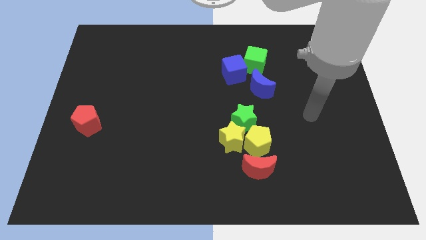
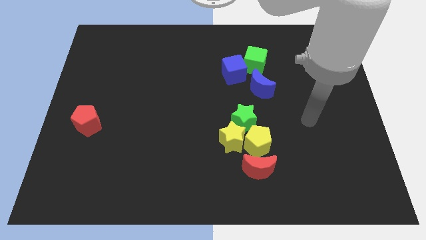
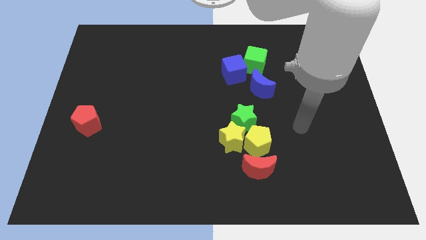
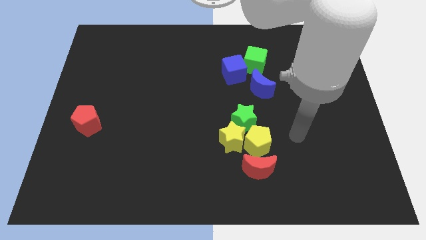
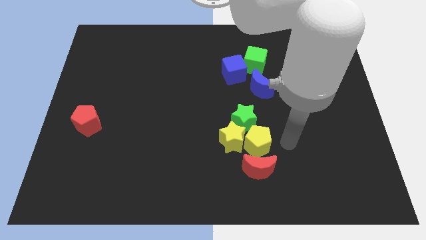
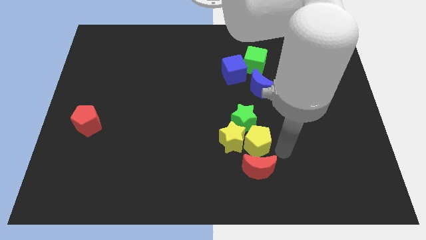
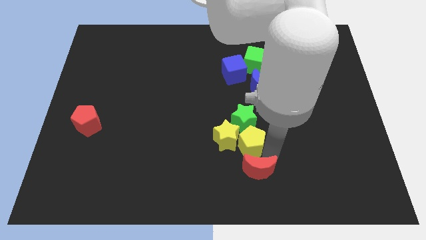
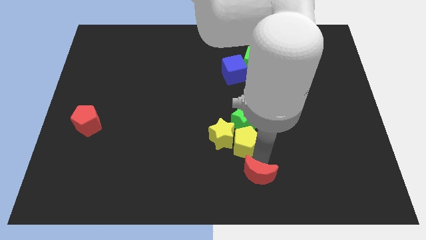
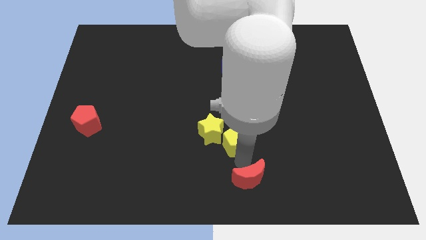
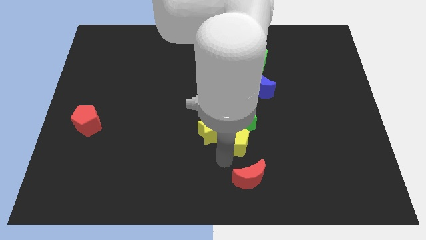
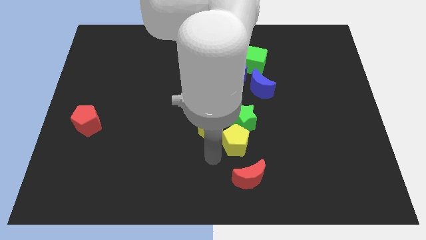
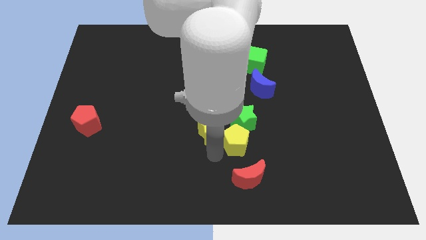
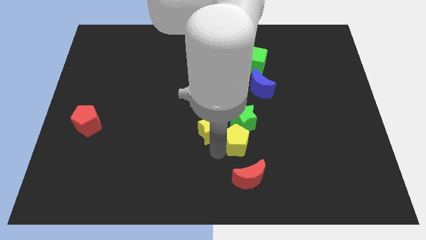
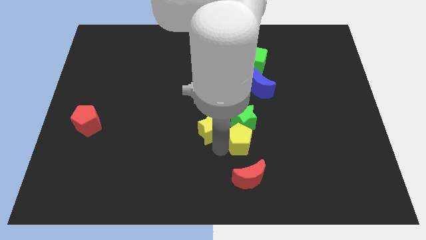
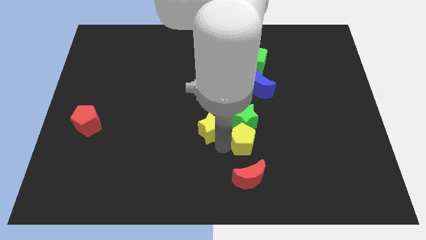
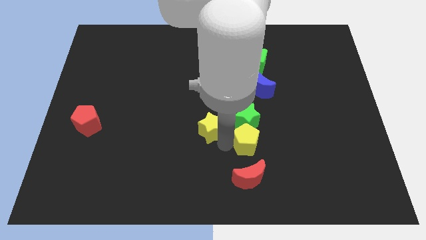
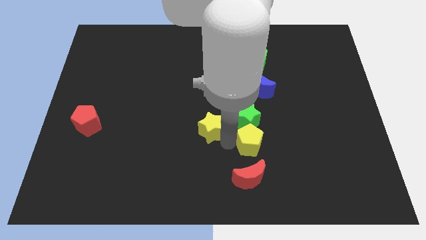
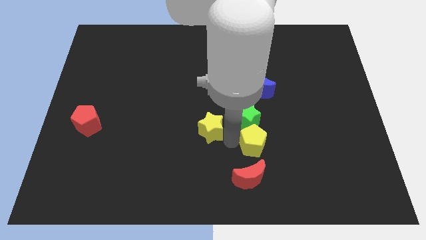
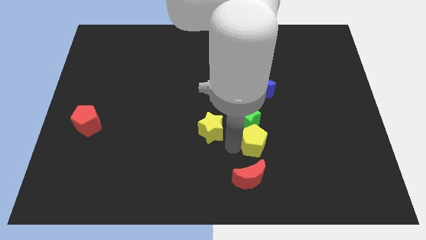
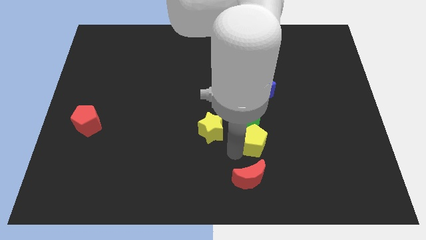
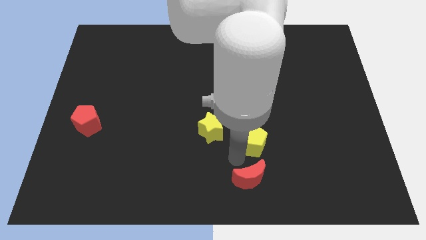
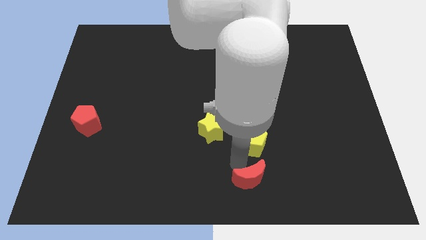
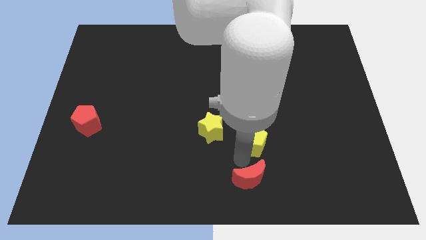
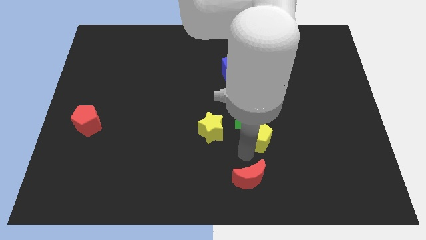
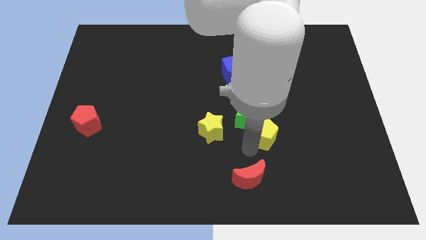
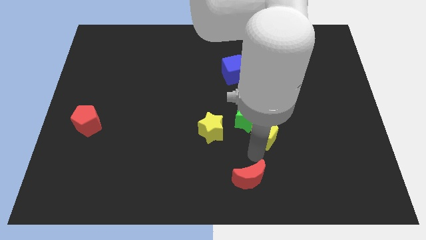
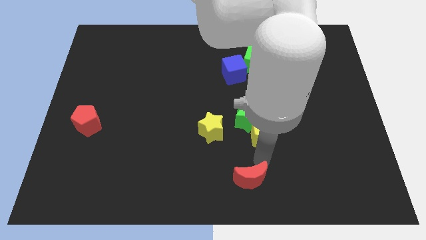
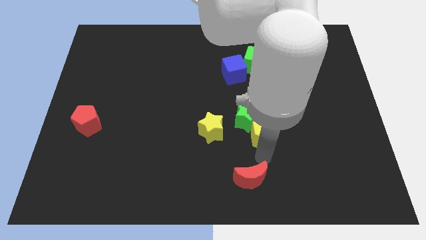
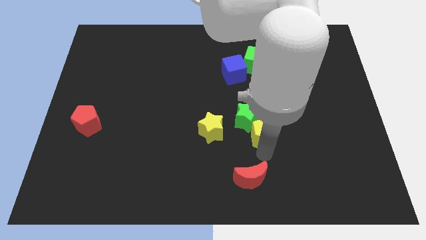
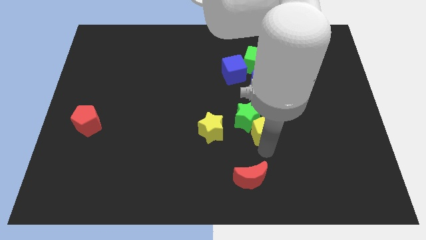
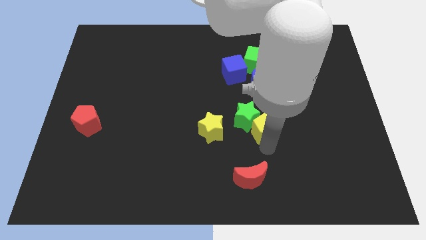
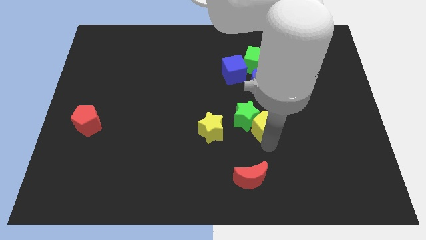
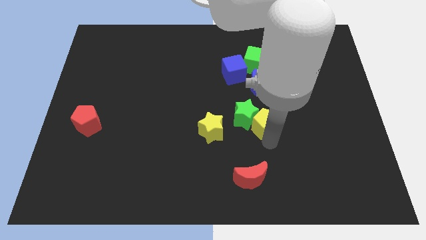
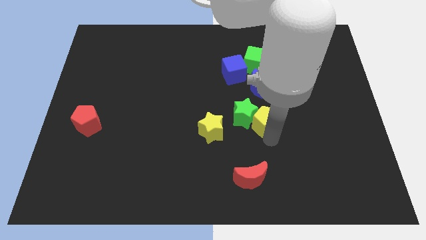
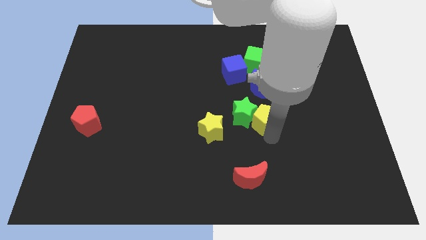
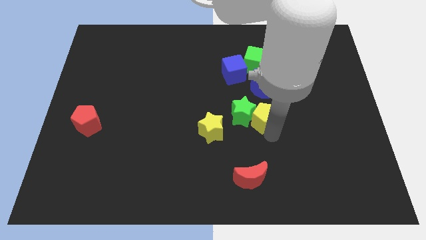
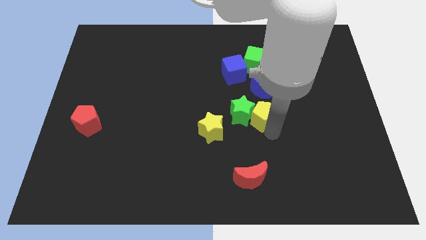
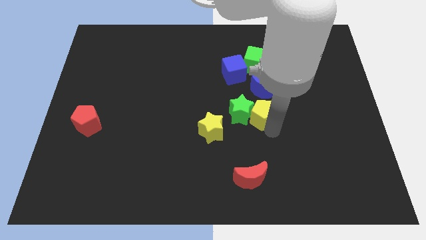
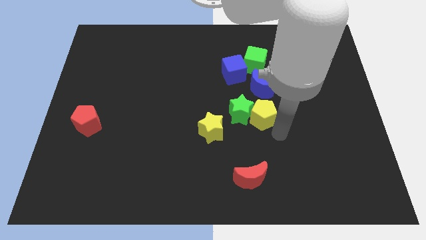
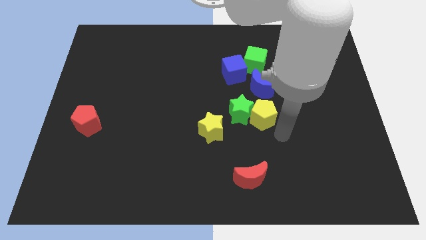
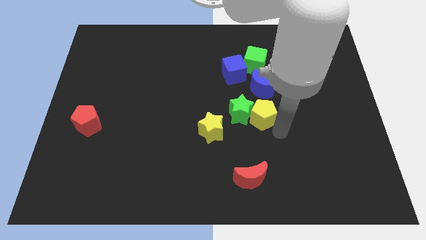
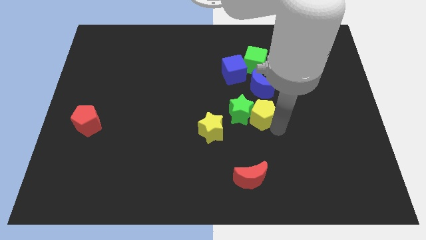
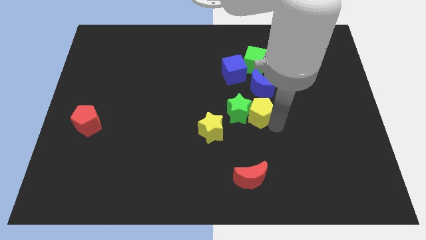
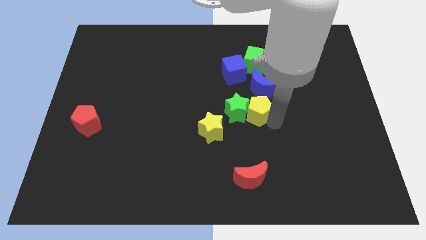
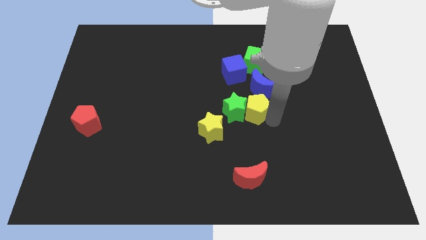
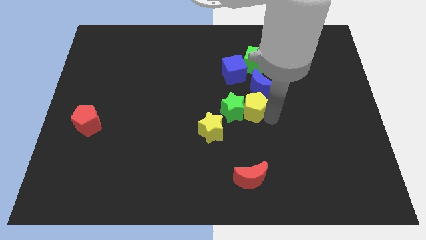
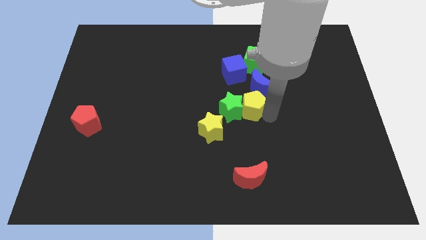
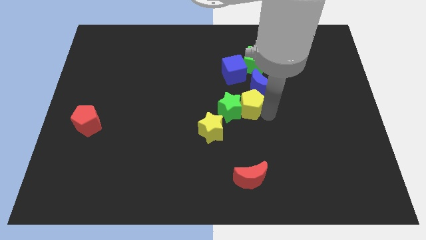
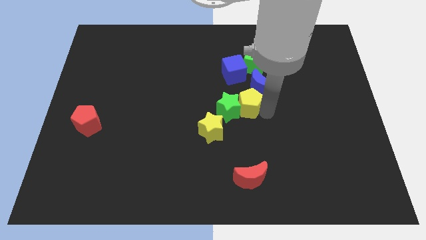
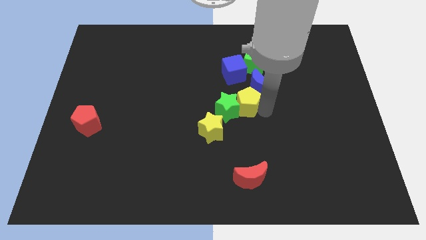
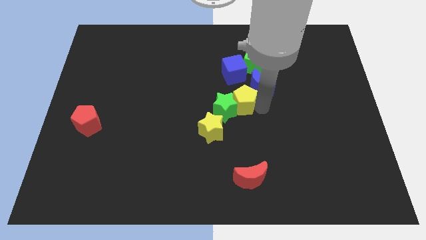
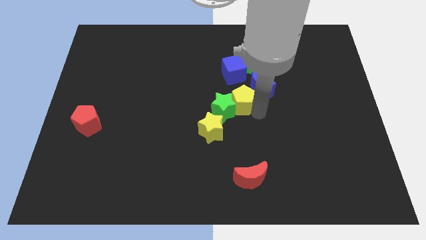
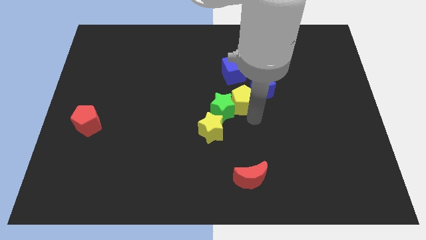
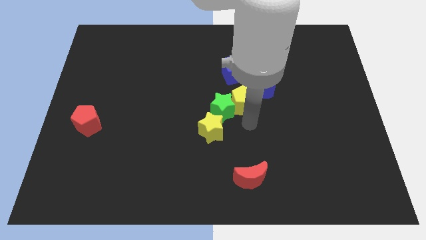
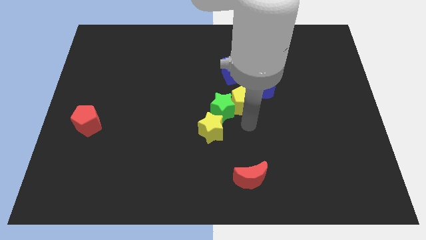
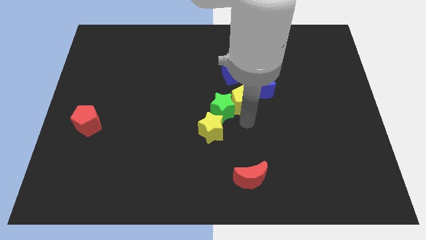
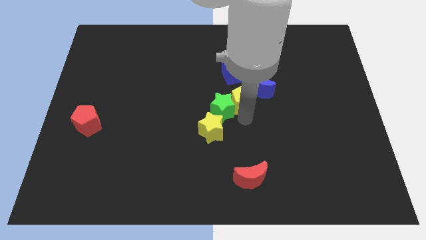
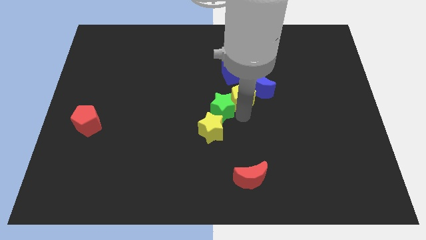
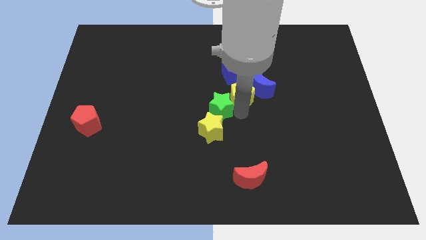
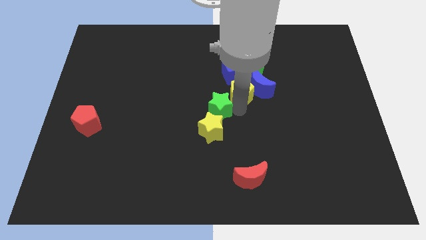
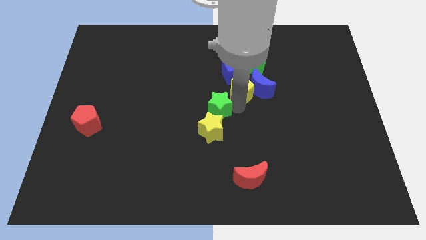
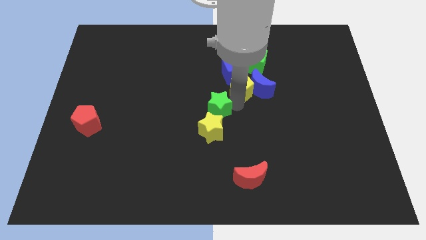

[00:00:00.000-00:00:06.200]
push the yellow pentagon next to the blue cube

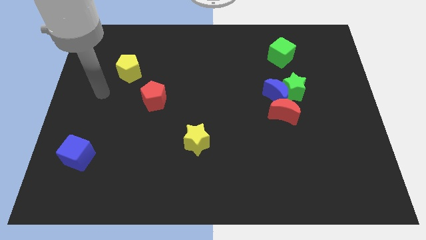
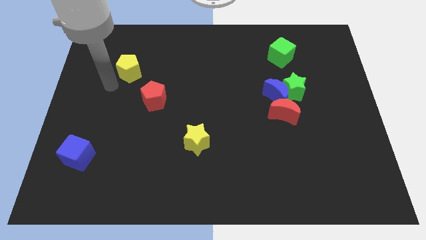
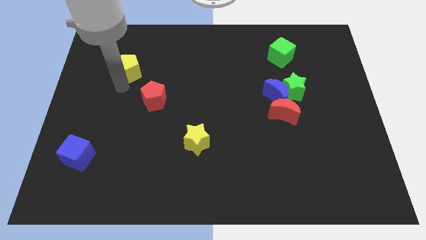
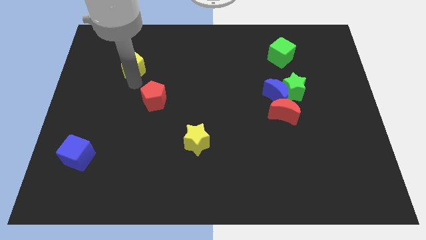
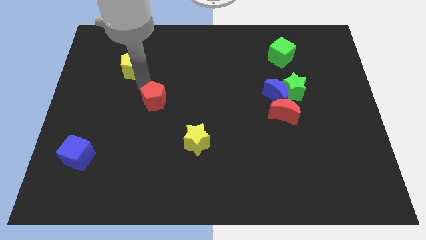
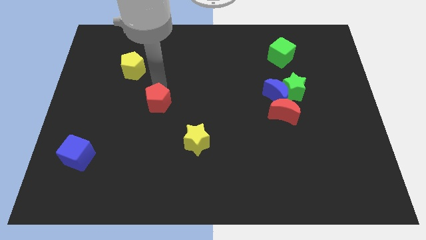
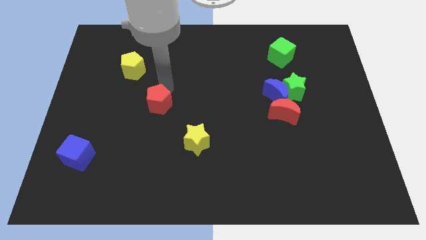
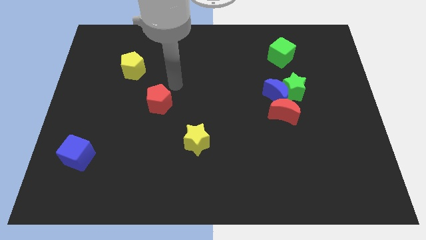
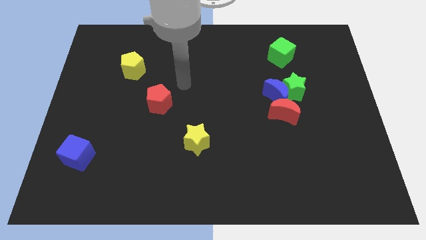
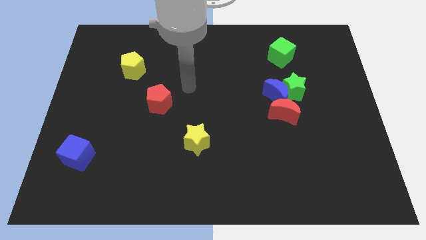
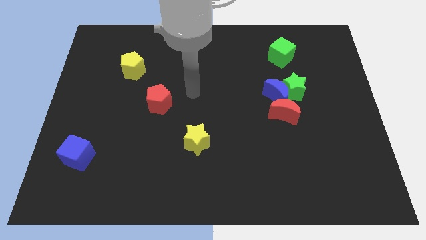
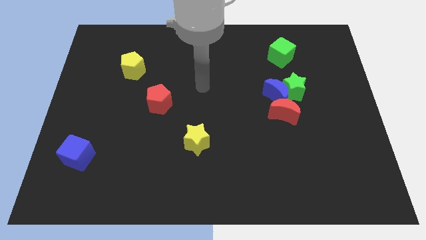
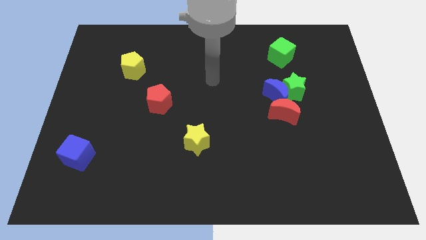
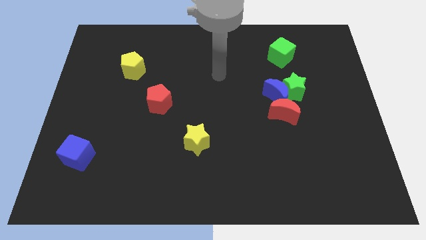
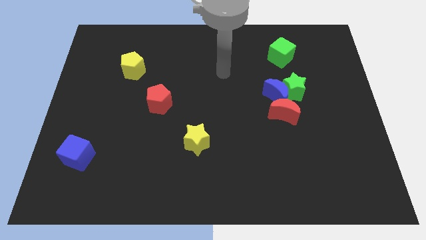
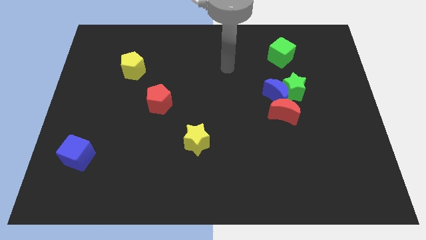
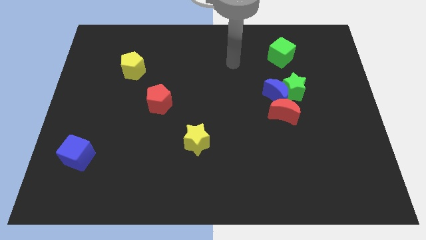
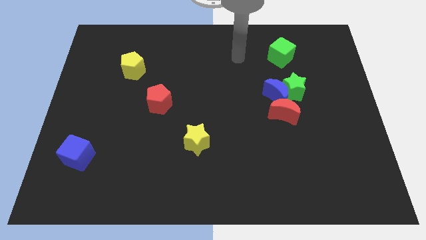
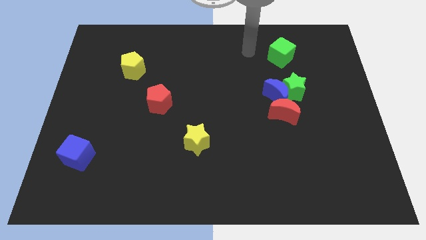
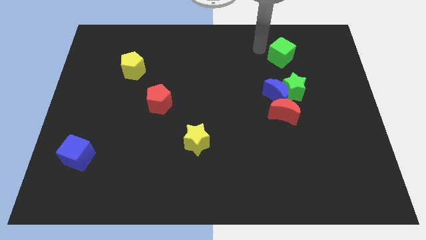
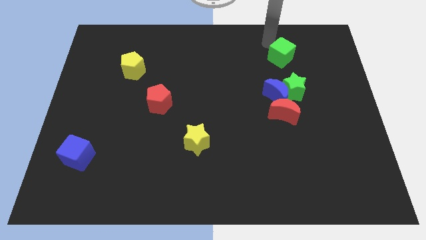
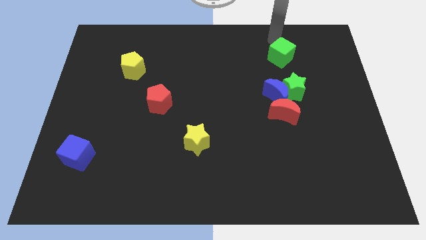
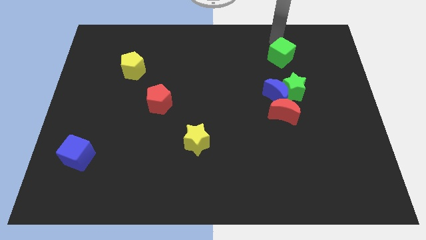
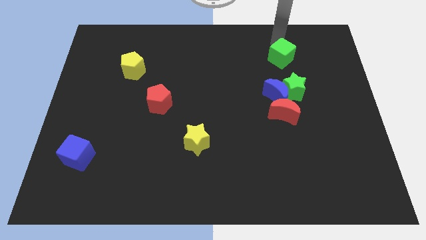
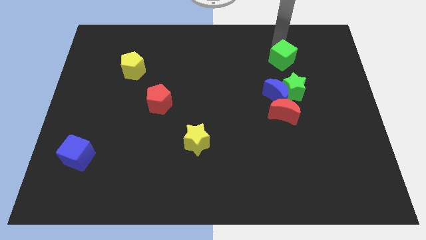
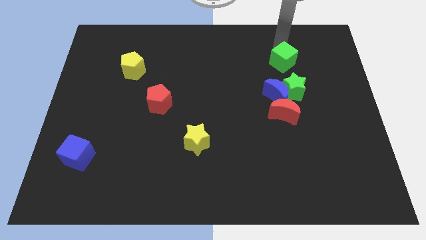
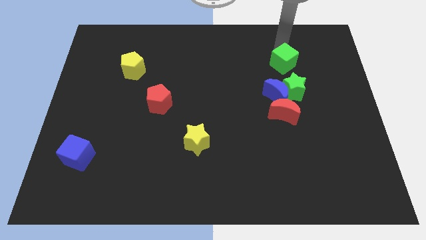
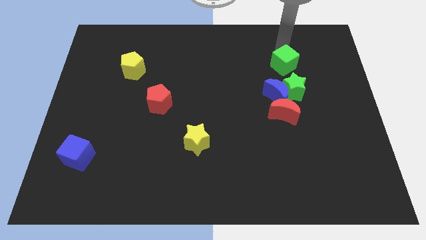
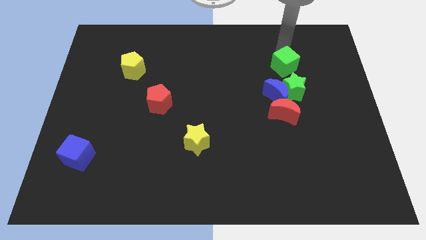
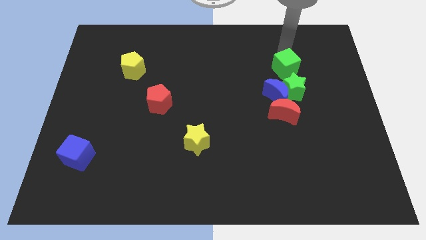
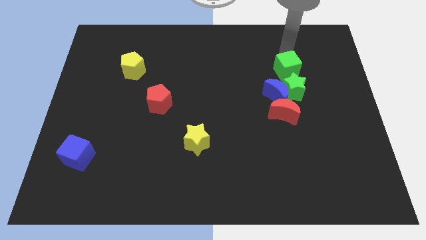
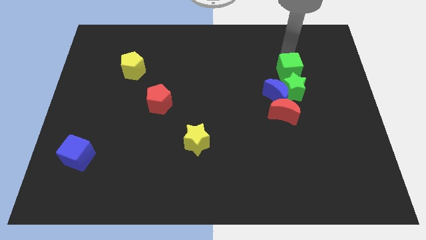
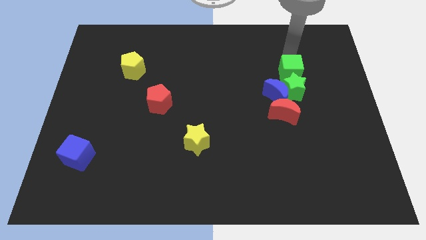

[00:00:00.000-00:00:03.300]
slide the green cube next to the green star
